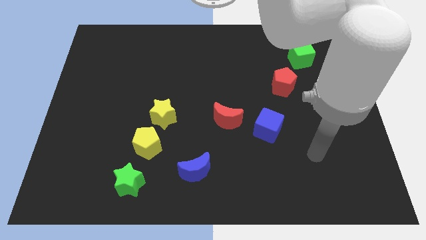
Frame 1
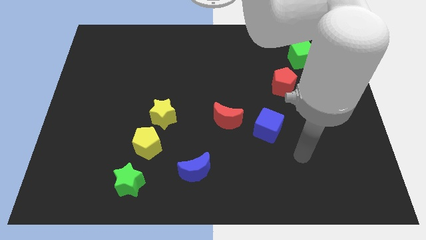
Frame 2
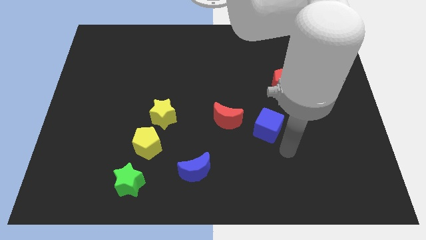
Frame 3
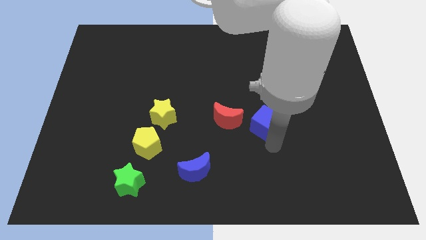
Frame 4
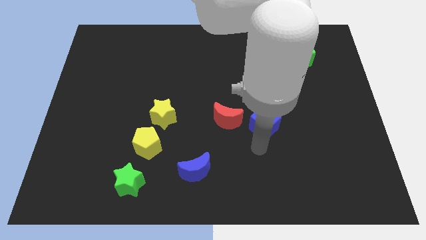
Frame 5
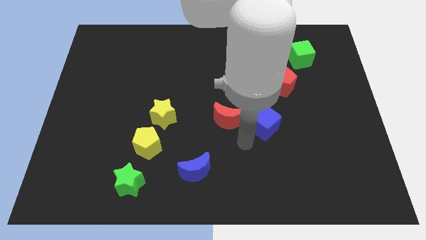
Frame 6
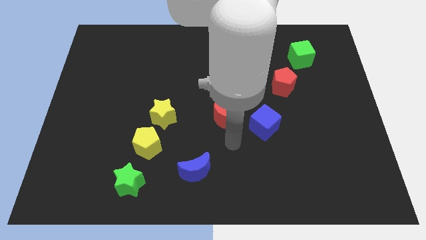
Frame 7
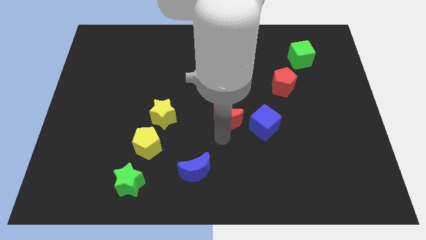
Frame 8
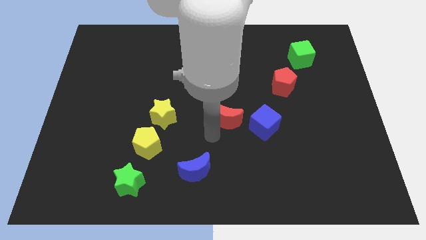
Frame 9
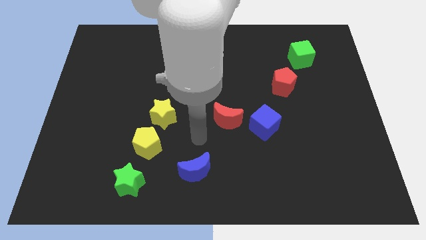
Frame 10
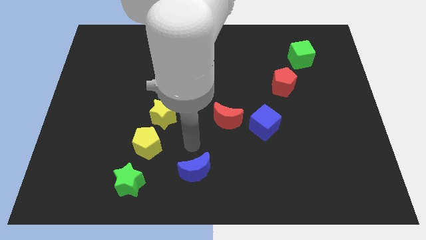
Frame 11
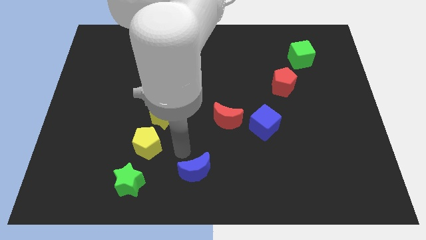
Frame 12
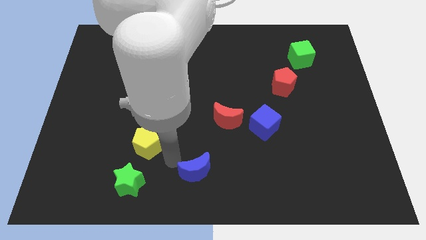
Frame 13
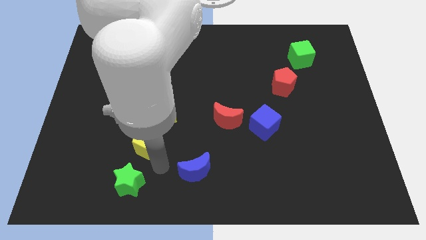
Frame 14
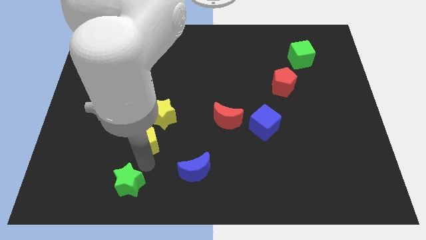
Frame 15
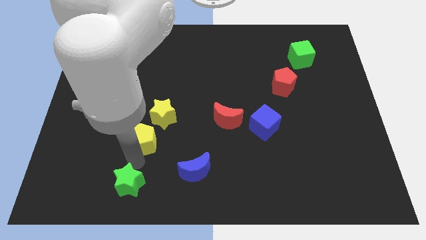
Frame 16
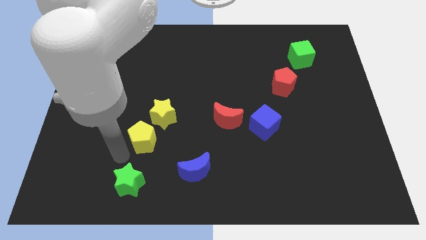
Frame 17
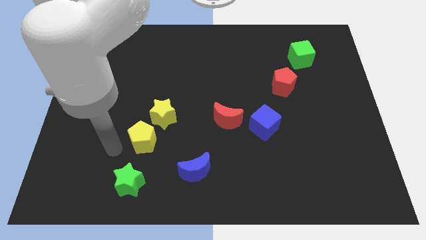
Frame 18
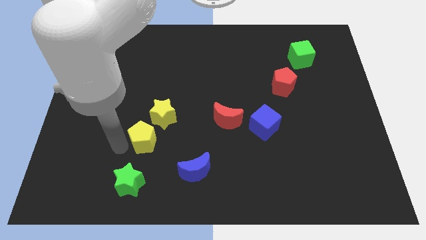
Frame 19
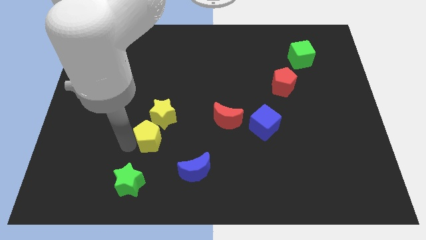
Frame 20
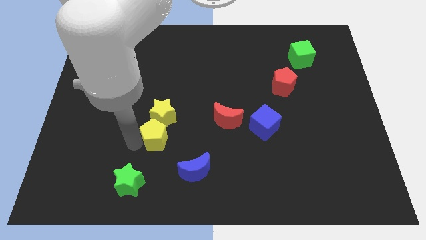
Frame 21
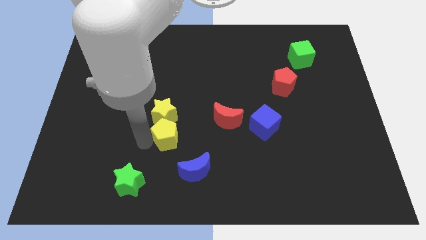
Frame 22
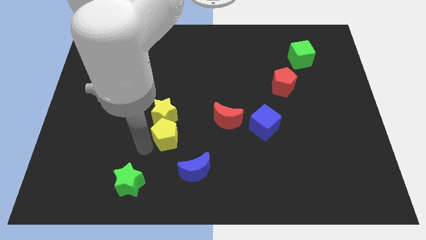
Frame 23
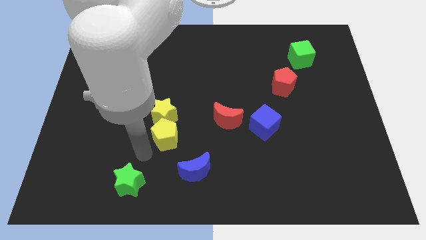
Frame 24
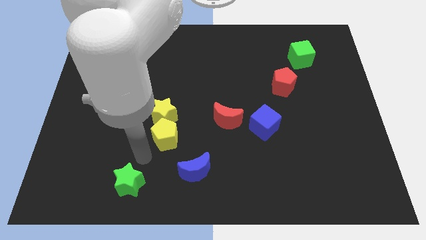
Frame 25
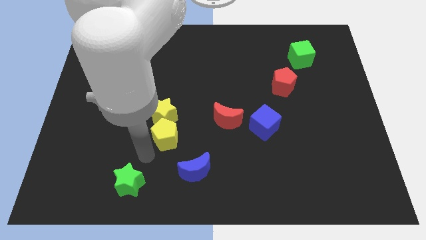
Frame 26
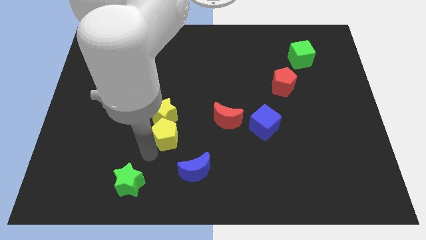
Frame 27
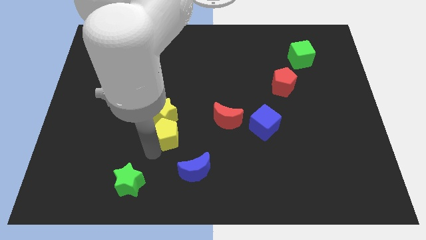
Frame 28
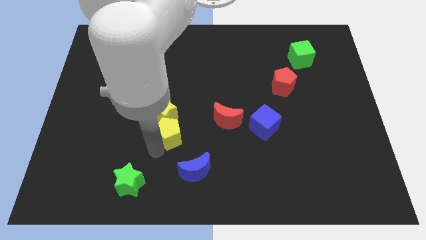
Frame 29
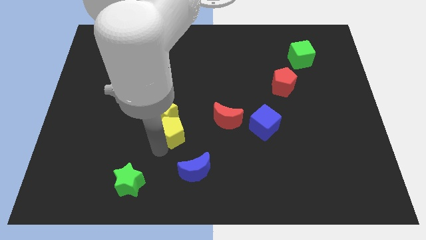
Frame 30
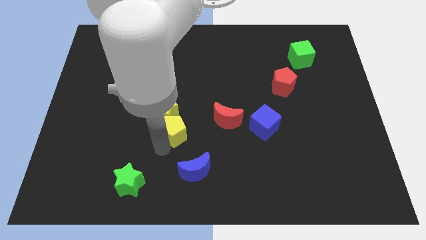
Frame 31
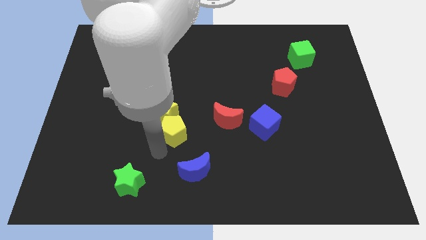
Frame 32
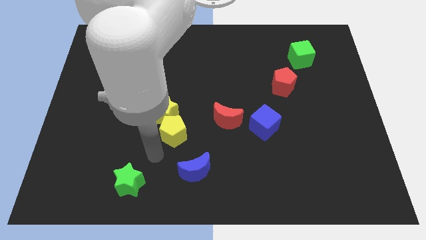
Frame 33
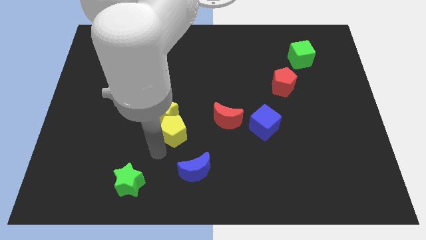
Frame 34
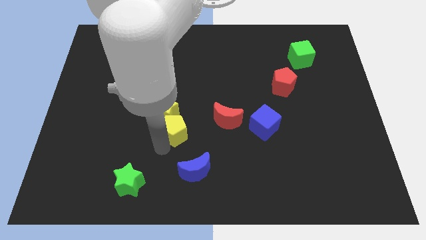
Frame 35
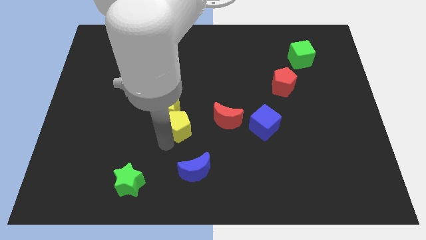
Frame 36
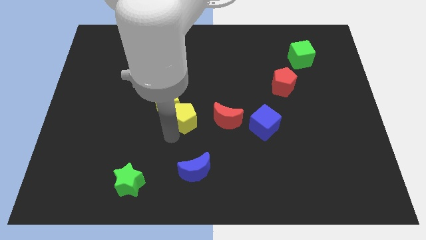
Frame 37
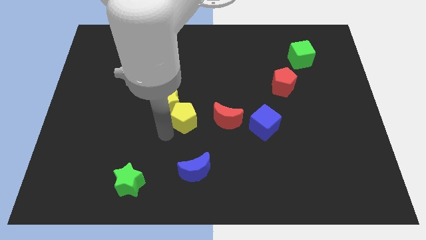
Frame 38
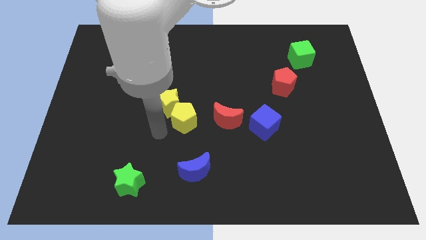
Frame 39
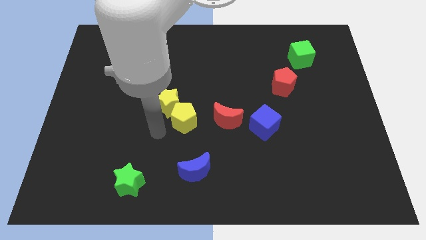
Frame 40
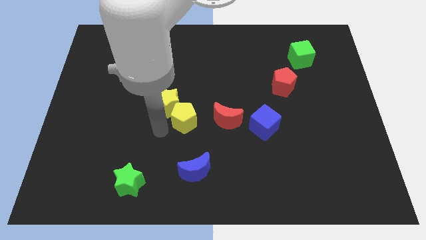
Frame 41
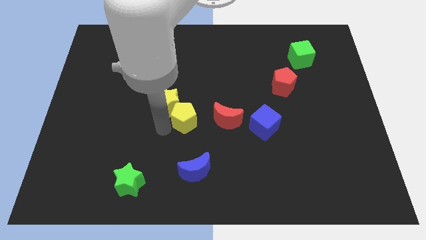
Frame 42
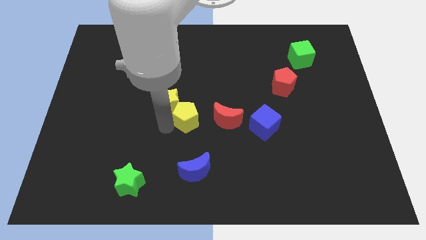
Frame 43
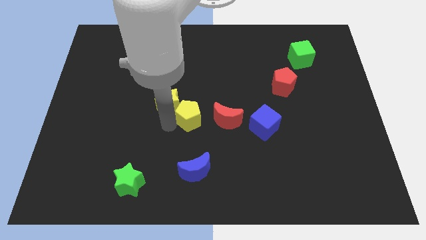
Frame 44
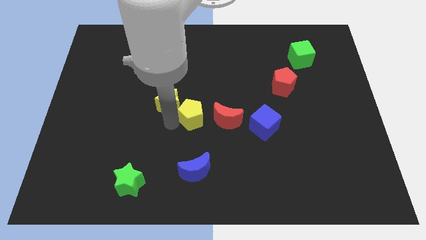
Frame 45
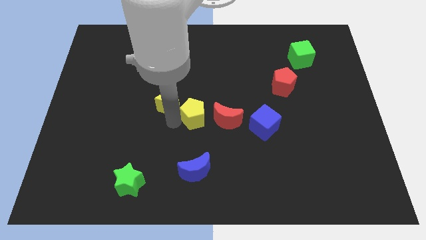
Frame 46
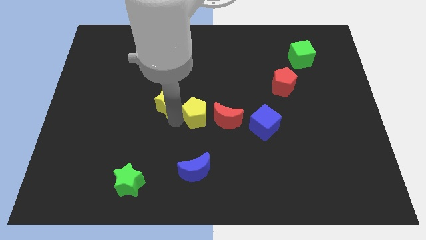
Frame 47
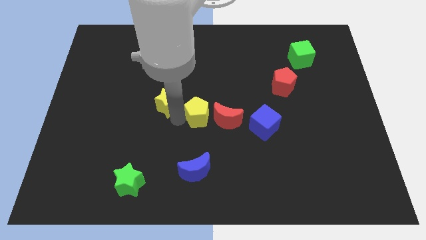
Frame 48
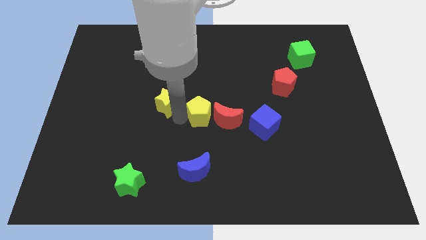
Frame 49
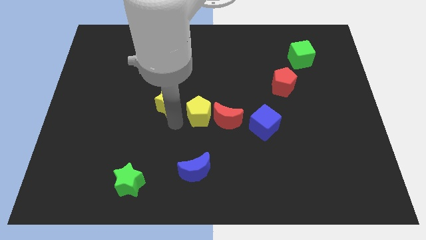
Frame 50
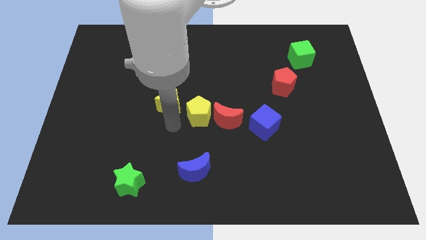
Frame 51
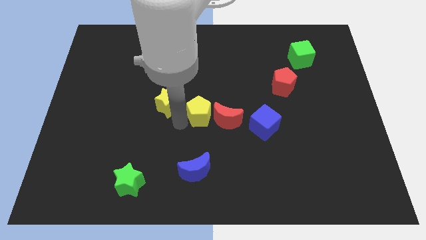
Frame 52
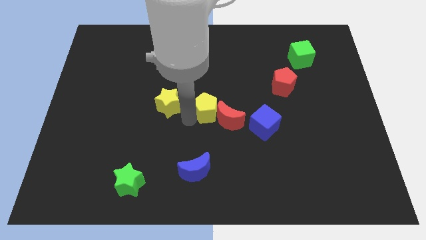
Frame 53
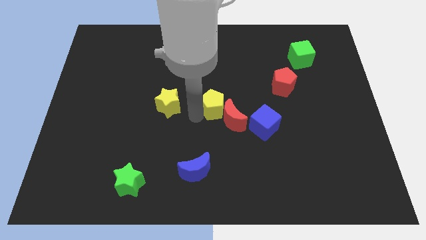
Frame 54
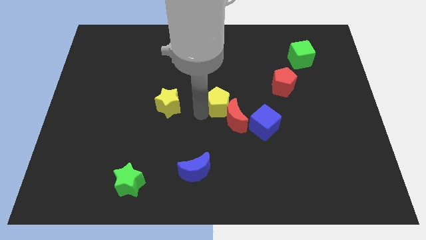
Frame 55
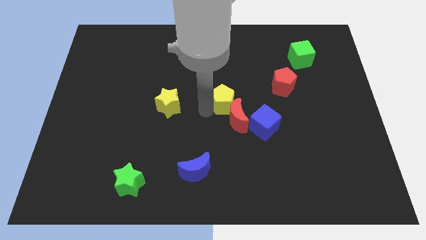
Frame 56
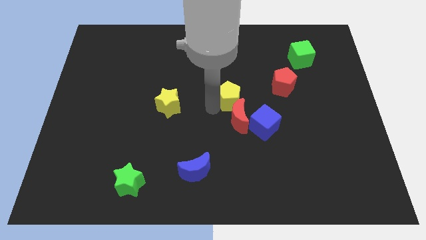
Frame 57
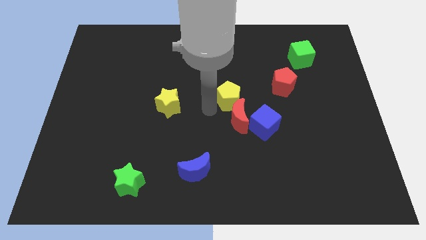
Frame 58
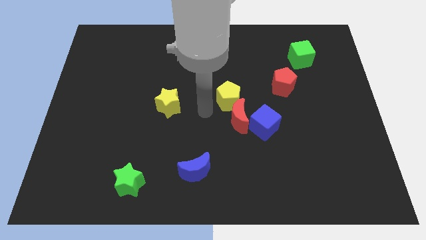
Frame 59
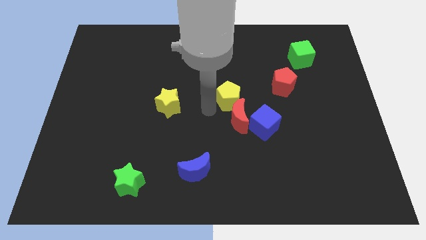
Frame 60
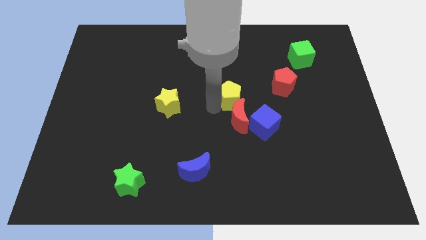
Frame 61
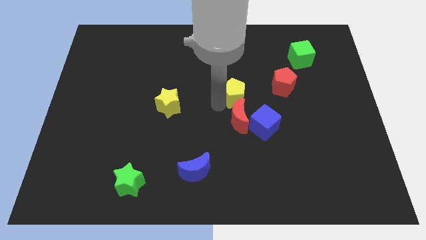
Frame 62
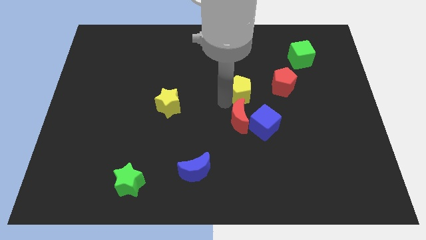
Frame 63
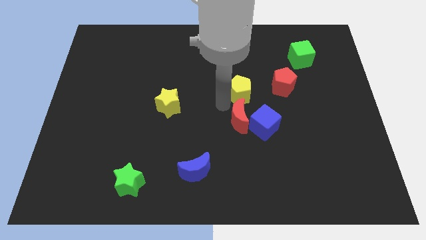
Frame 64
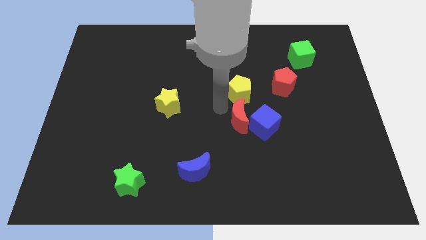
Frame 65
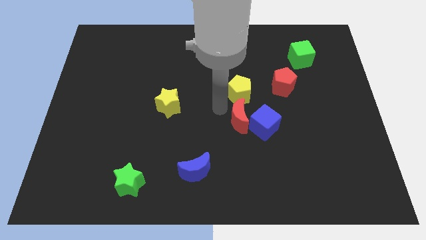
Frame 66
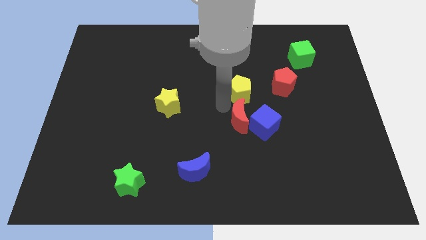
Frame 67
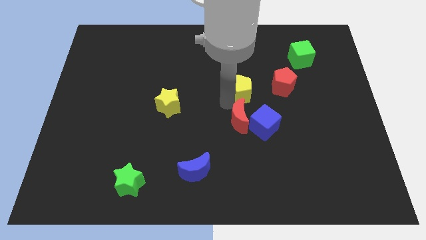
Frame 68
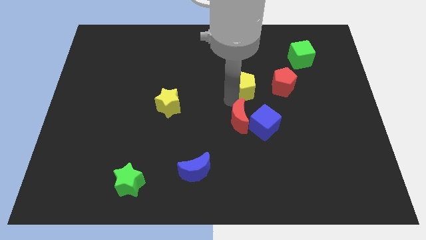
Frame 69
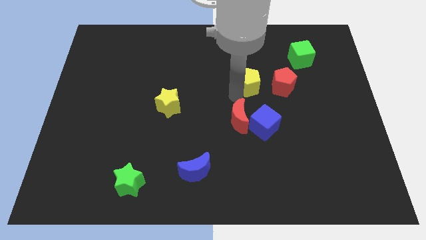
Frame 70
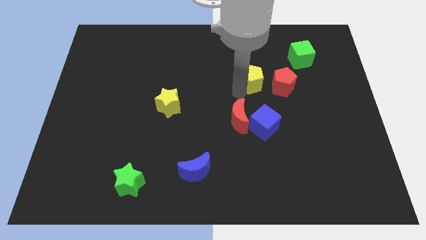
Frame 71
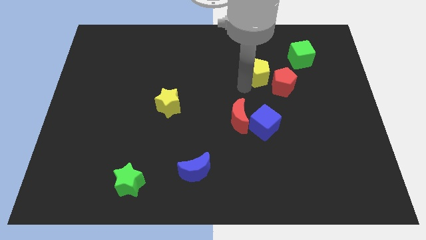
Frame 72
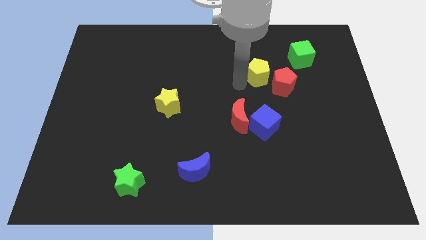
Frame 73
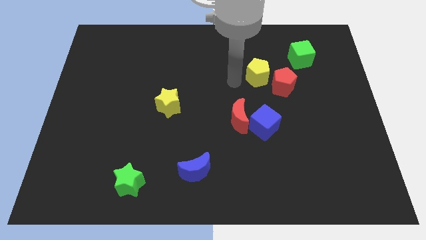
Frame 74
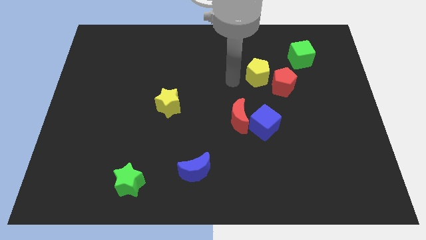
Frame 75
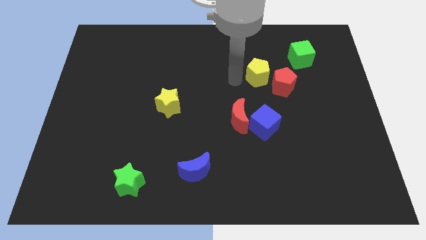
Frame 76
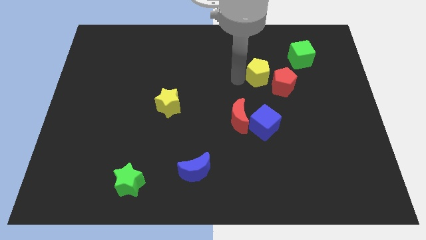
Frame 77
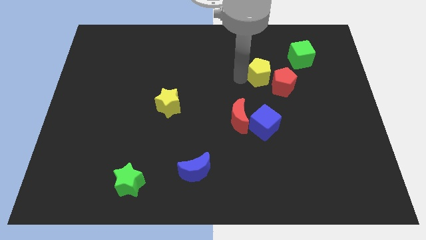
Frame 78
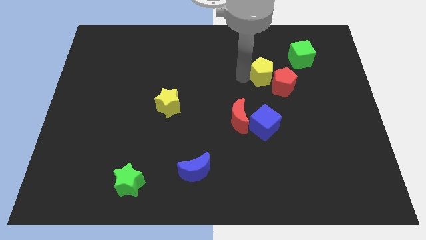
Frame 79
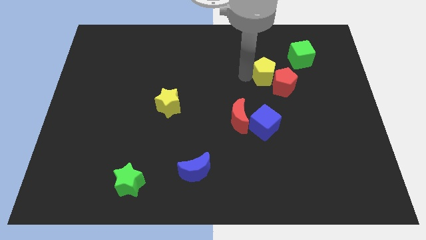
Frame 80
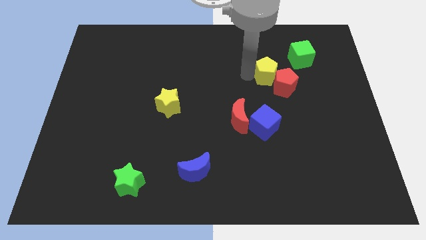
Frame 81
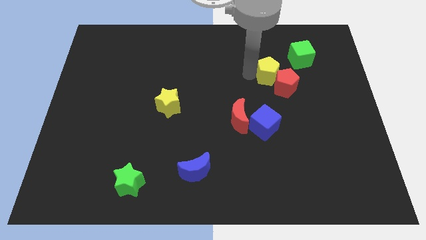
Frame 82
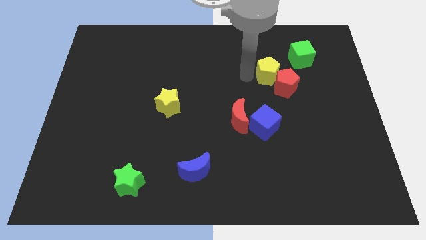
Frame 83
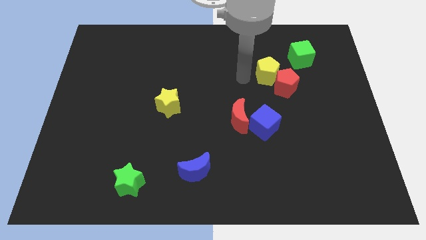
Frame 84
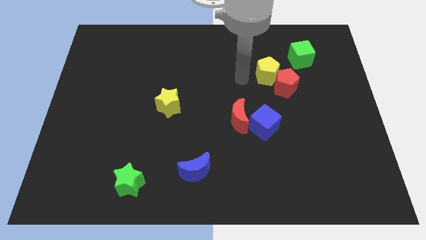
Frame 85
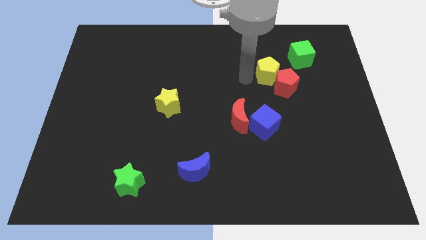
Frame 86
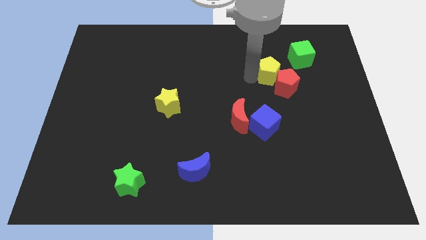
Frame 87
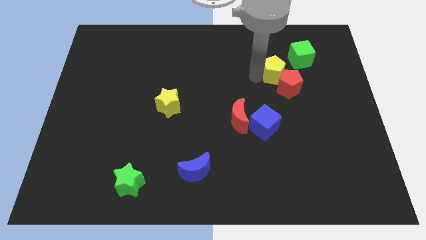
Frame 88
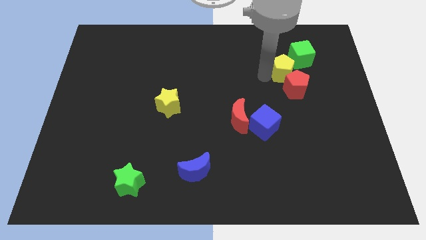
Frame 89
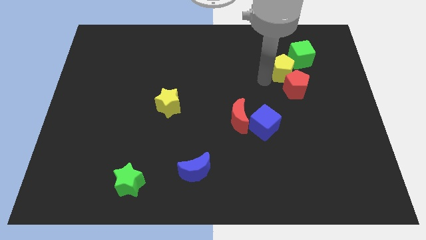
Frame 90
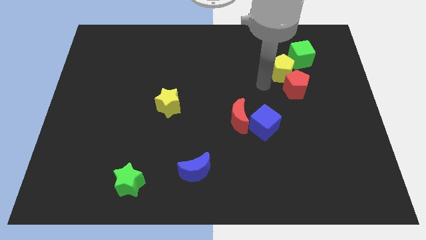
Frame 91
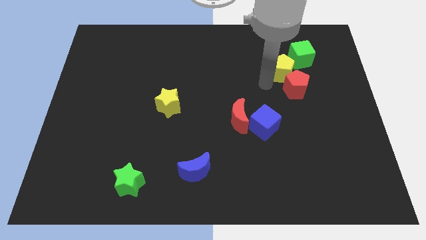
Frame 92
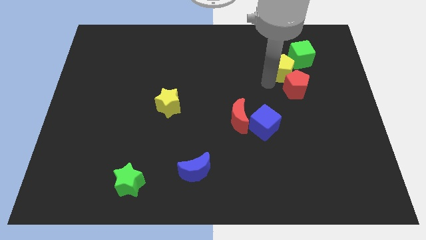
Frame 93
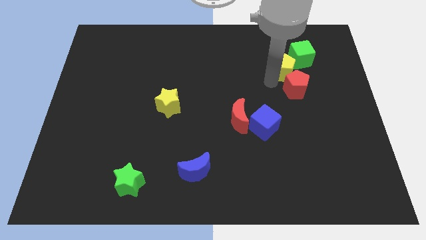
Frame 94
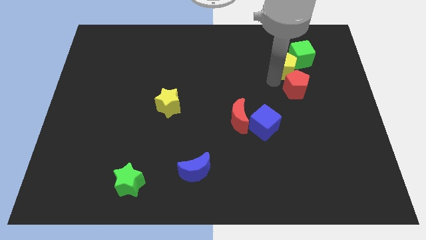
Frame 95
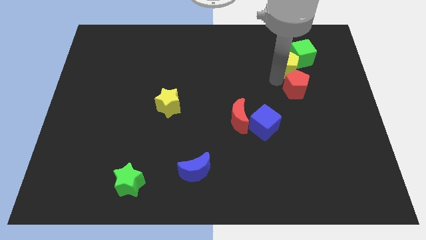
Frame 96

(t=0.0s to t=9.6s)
put the yellow pentagon towards the green cube
